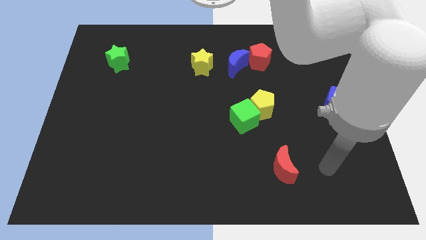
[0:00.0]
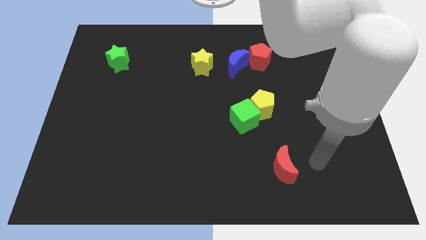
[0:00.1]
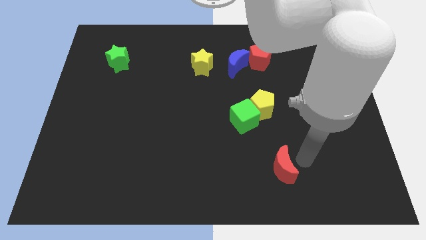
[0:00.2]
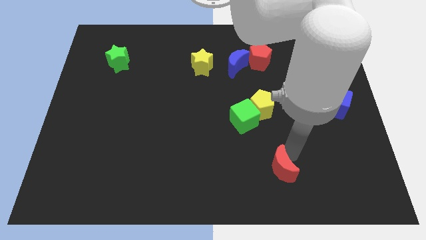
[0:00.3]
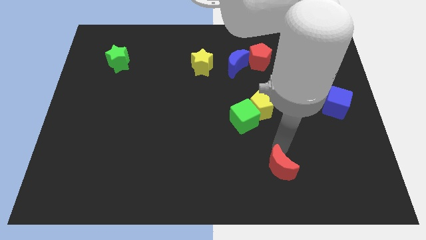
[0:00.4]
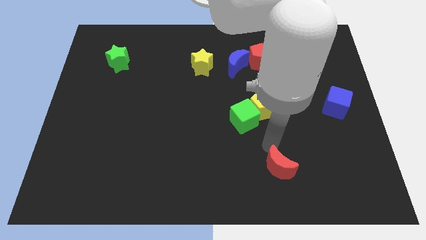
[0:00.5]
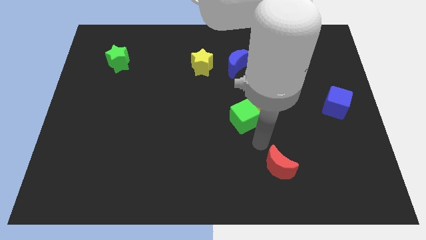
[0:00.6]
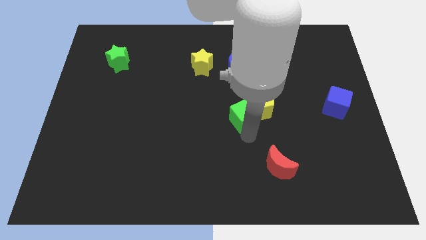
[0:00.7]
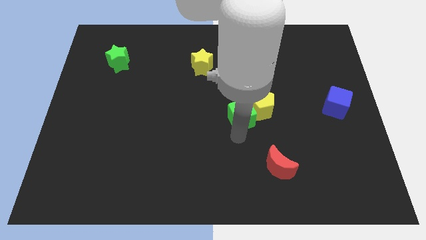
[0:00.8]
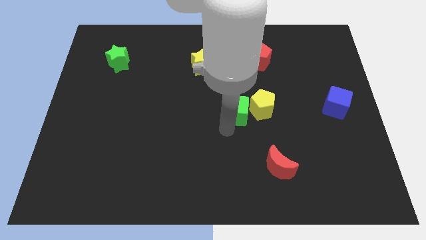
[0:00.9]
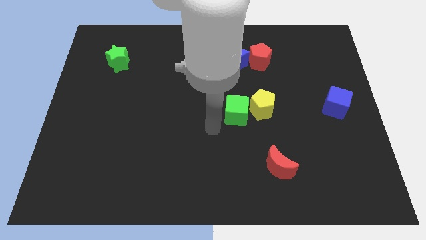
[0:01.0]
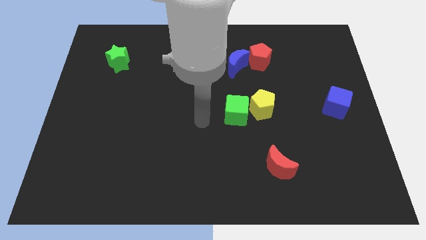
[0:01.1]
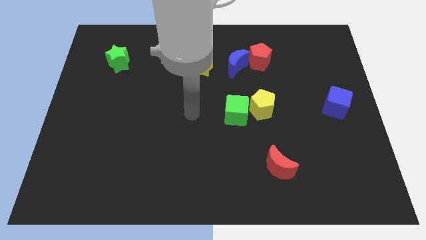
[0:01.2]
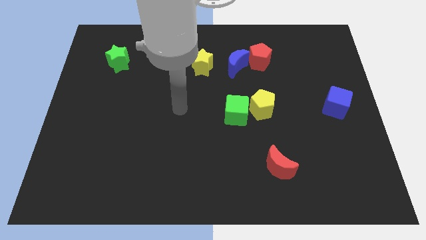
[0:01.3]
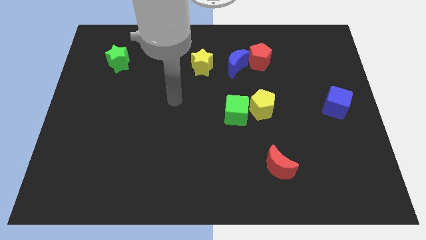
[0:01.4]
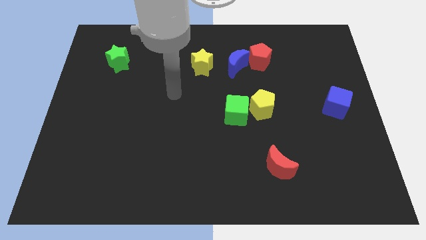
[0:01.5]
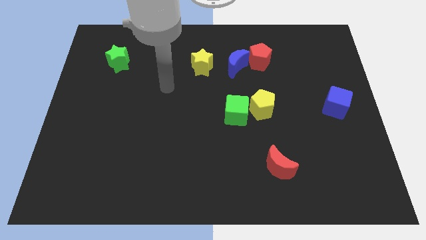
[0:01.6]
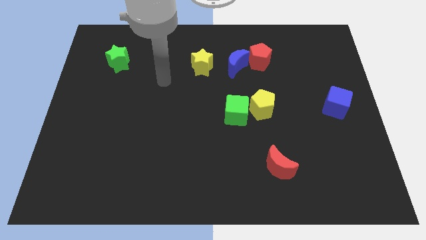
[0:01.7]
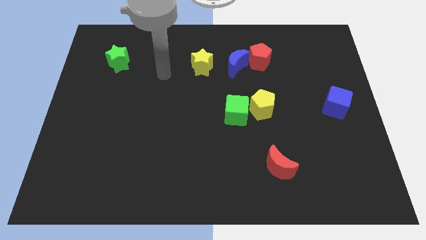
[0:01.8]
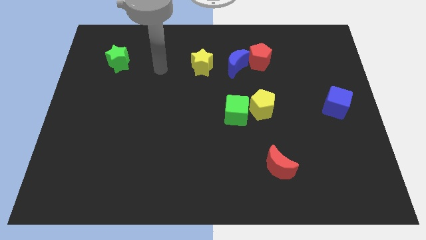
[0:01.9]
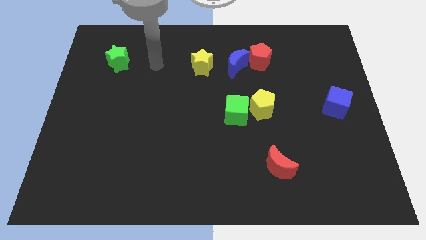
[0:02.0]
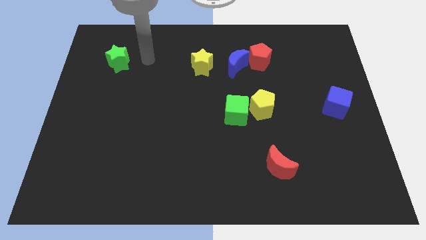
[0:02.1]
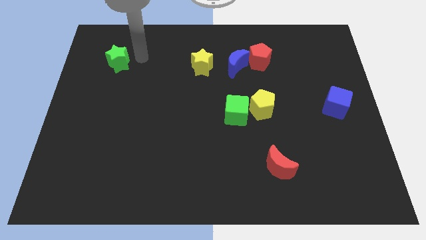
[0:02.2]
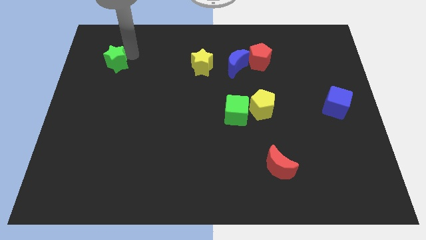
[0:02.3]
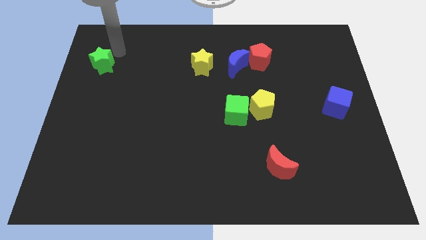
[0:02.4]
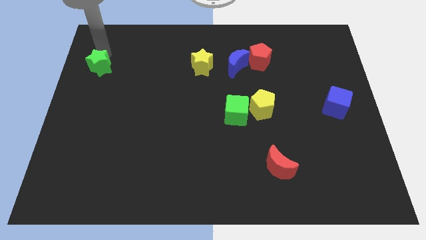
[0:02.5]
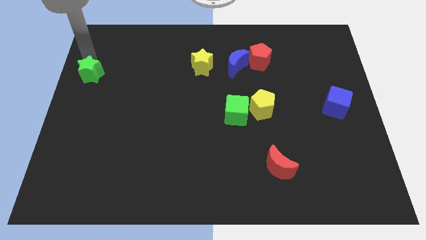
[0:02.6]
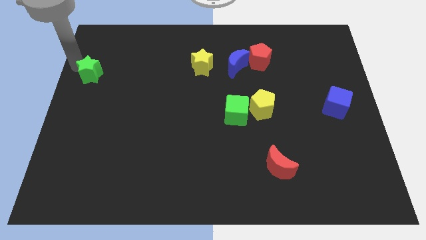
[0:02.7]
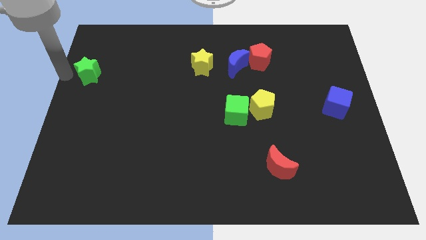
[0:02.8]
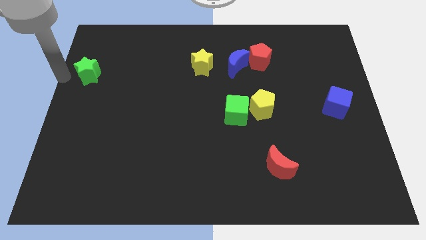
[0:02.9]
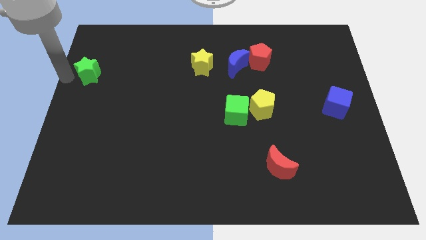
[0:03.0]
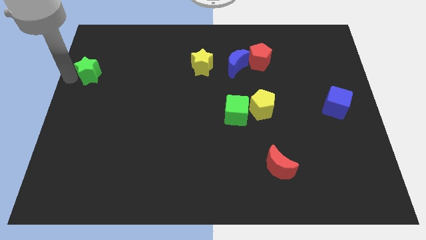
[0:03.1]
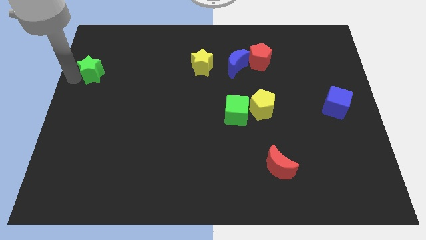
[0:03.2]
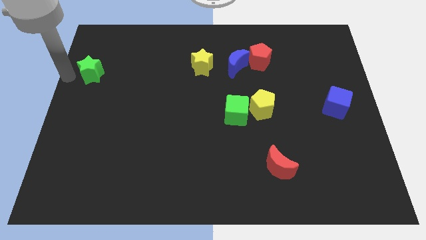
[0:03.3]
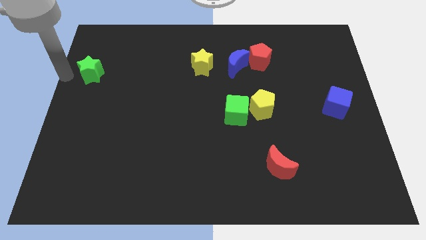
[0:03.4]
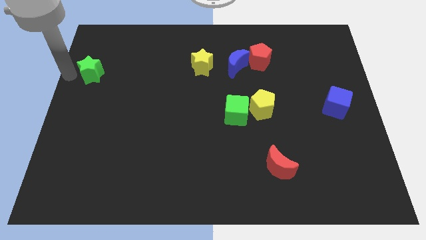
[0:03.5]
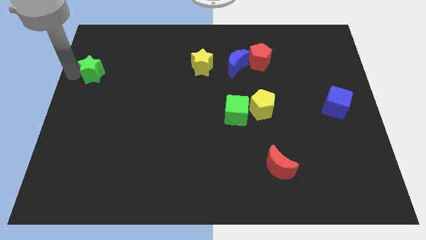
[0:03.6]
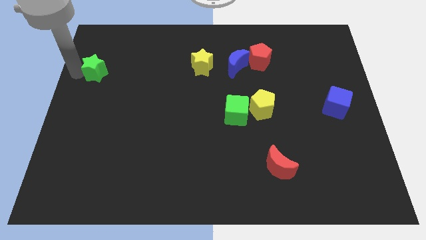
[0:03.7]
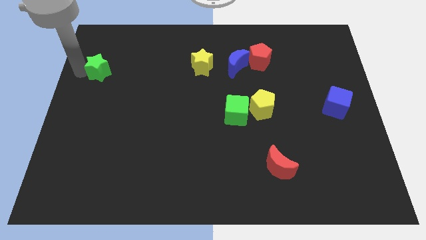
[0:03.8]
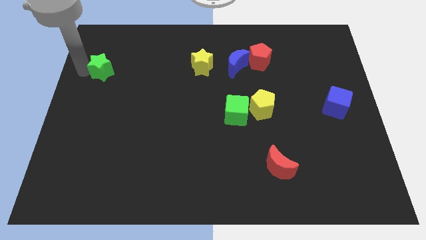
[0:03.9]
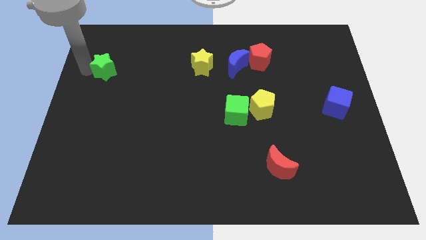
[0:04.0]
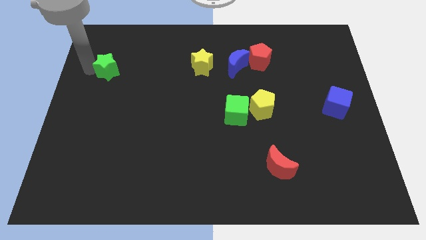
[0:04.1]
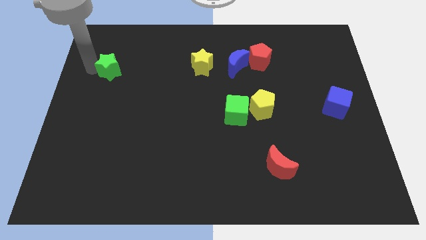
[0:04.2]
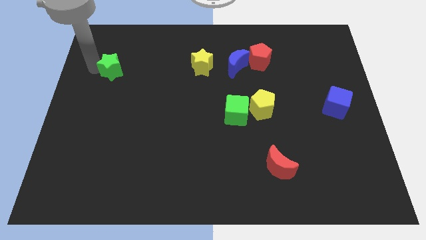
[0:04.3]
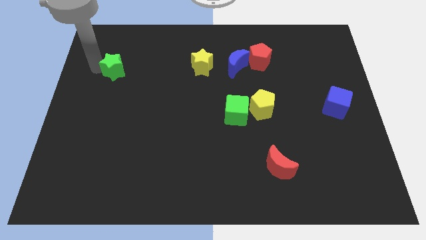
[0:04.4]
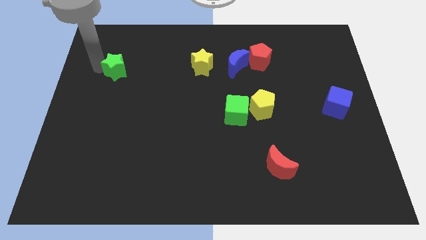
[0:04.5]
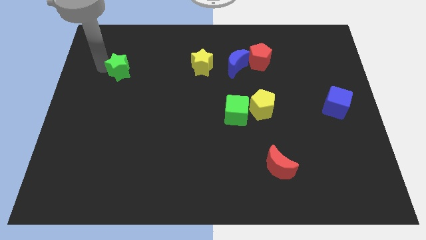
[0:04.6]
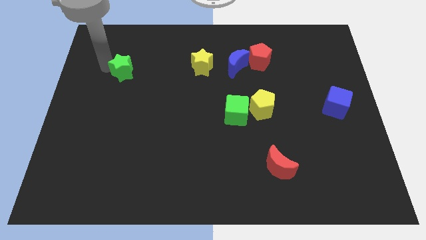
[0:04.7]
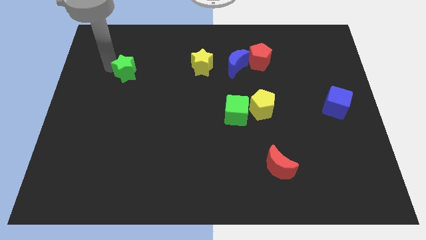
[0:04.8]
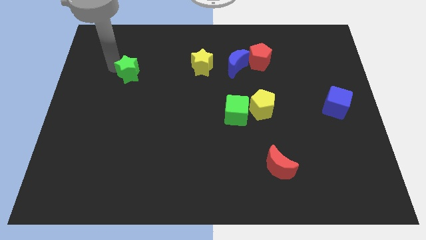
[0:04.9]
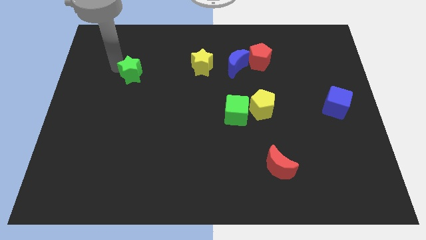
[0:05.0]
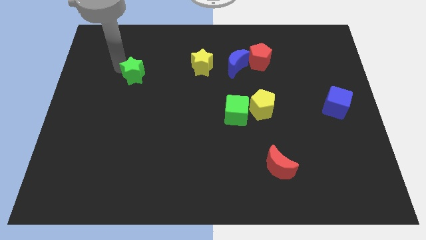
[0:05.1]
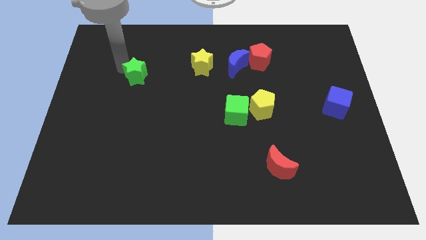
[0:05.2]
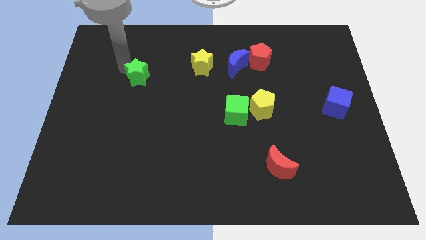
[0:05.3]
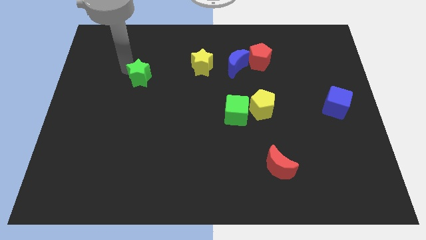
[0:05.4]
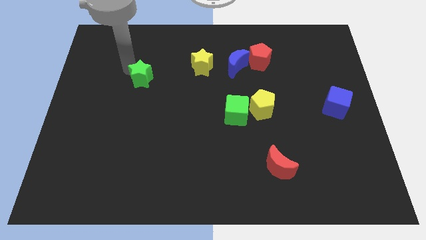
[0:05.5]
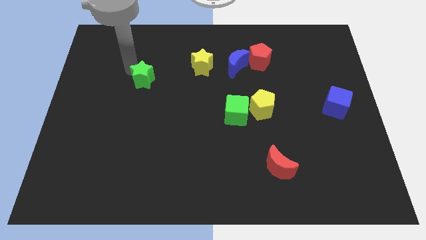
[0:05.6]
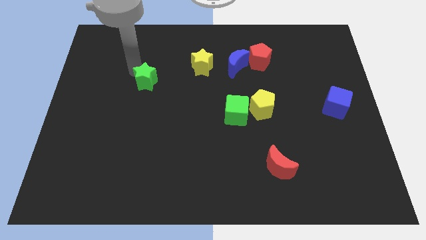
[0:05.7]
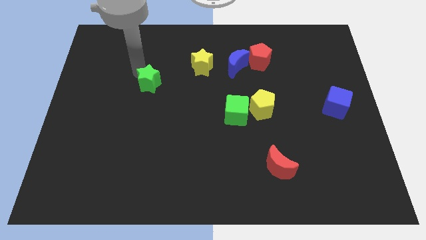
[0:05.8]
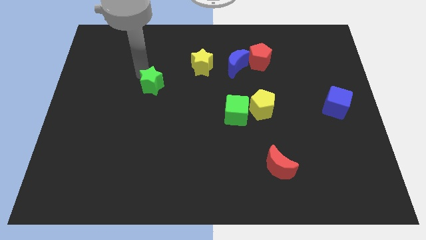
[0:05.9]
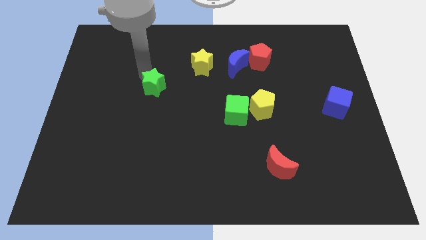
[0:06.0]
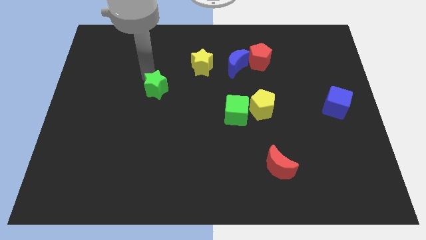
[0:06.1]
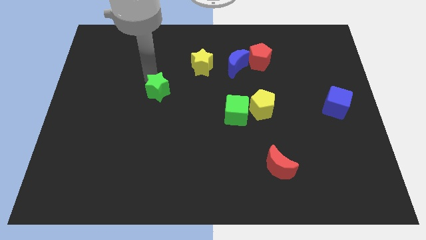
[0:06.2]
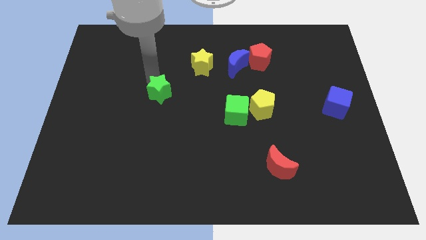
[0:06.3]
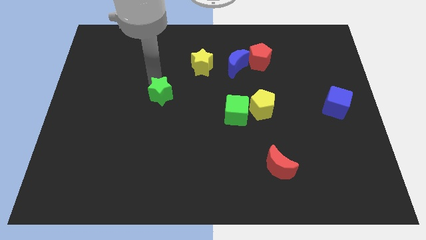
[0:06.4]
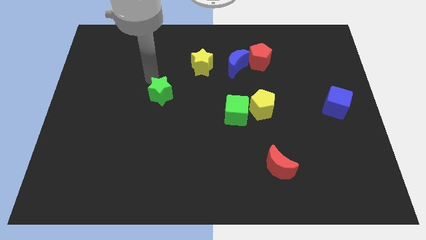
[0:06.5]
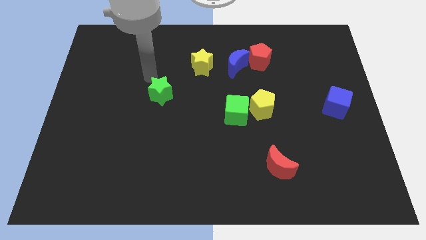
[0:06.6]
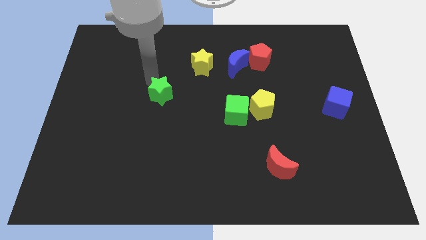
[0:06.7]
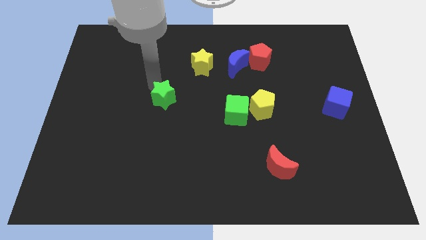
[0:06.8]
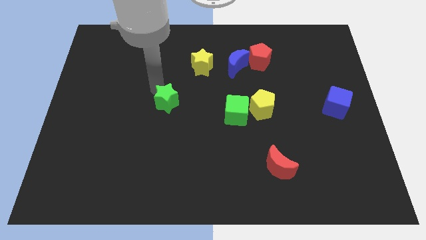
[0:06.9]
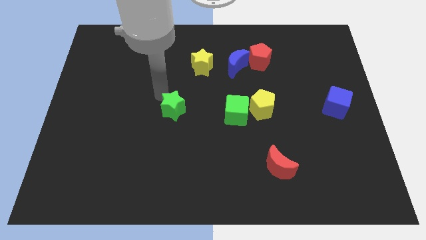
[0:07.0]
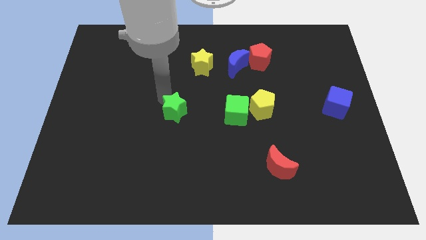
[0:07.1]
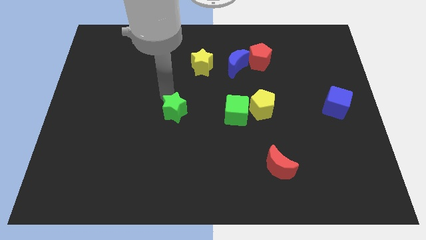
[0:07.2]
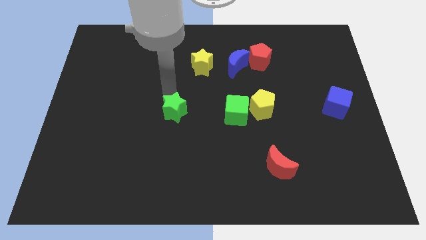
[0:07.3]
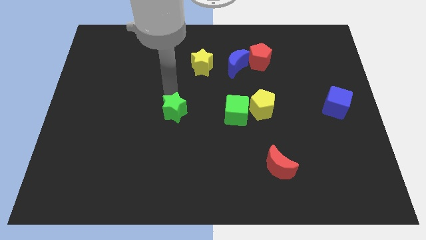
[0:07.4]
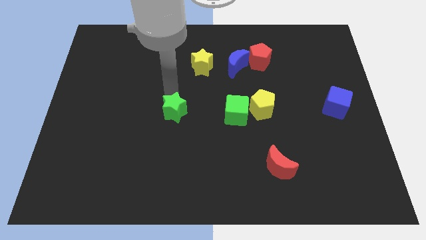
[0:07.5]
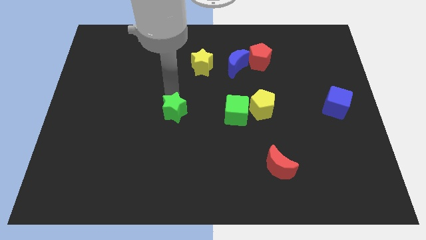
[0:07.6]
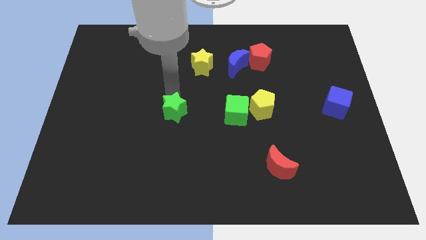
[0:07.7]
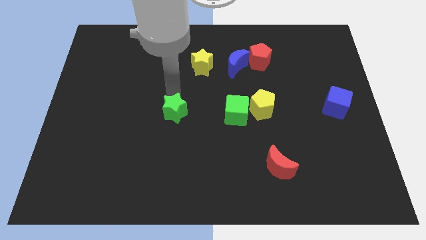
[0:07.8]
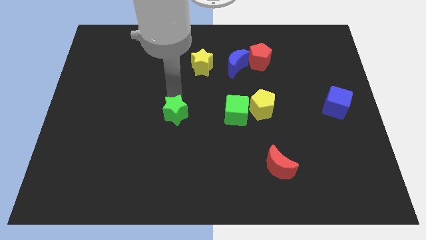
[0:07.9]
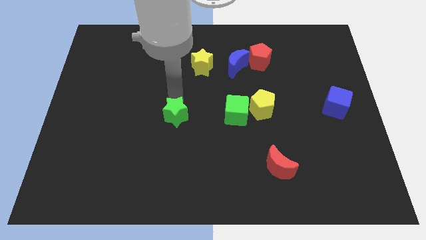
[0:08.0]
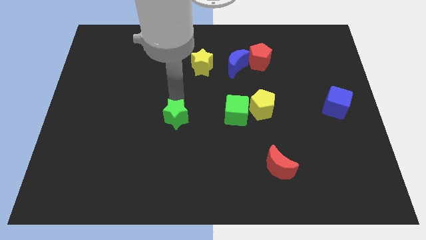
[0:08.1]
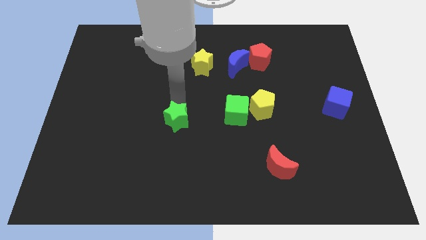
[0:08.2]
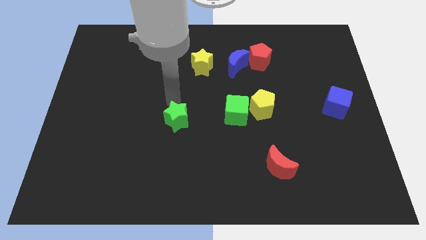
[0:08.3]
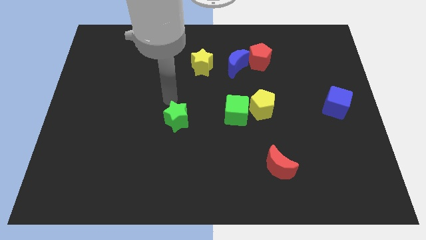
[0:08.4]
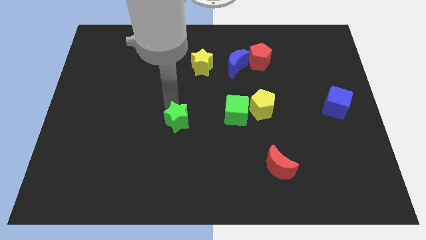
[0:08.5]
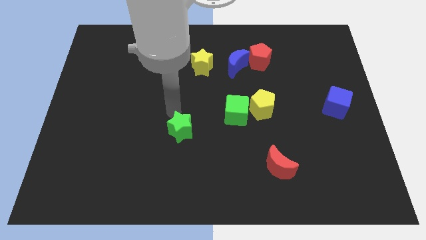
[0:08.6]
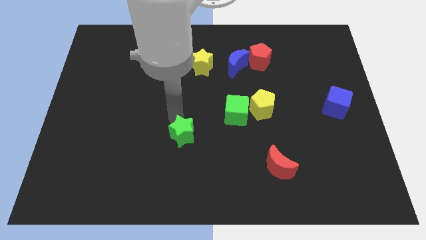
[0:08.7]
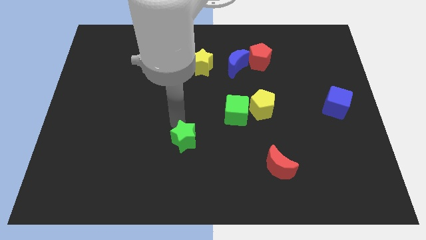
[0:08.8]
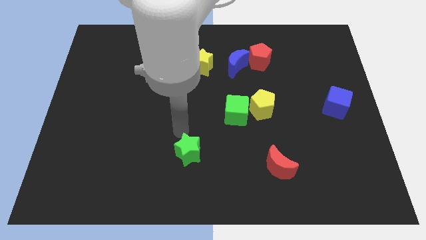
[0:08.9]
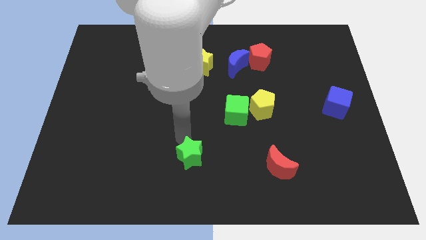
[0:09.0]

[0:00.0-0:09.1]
push the green star to the bottom
